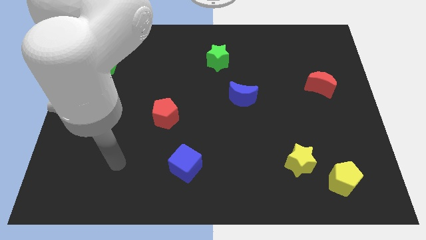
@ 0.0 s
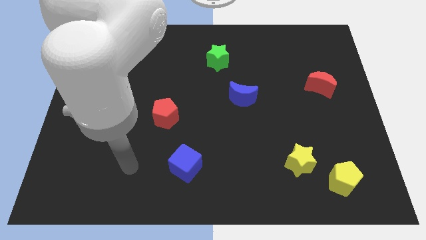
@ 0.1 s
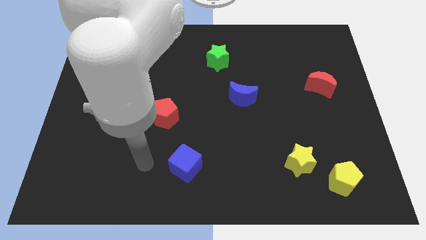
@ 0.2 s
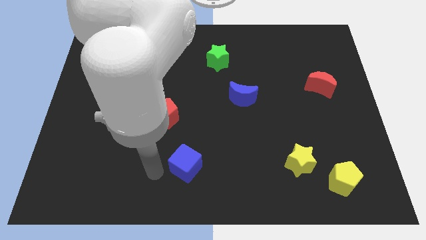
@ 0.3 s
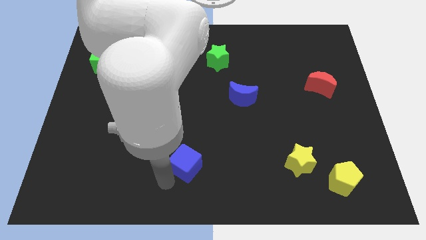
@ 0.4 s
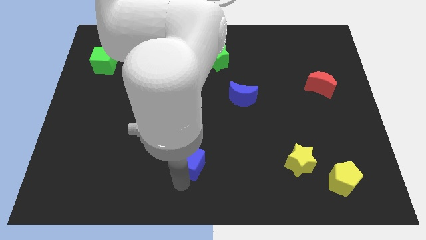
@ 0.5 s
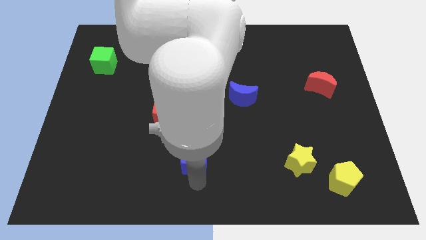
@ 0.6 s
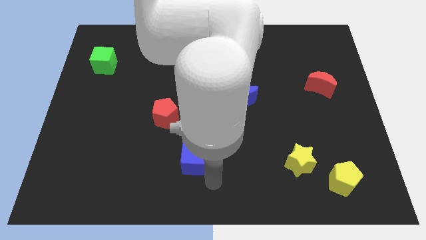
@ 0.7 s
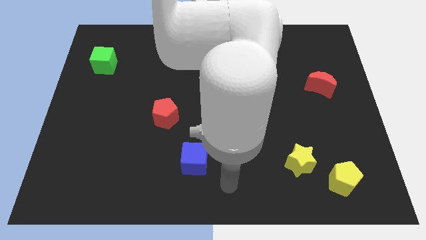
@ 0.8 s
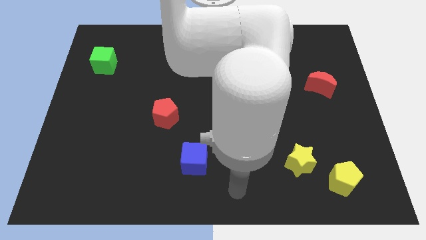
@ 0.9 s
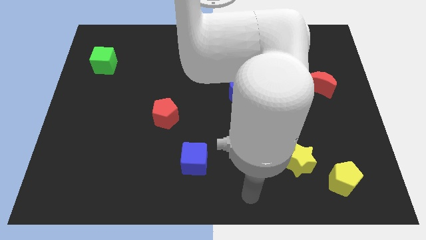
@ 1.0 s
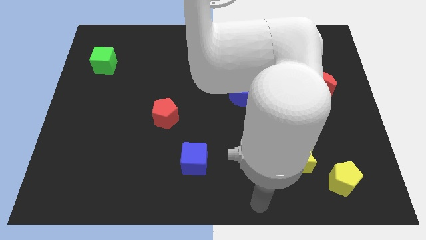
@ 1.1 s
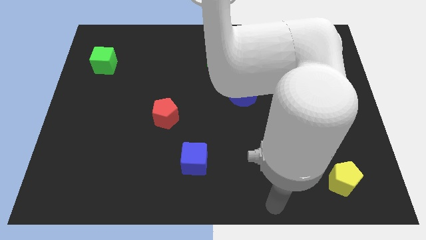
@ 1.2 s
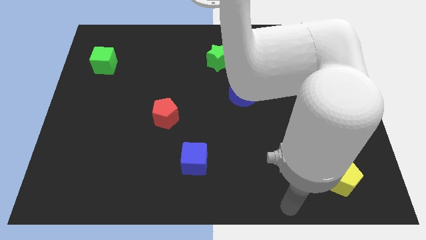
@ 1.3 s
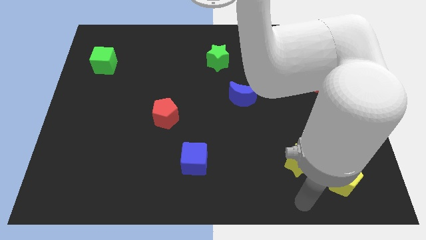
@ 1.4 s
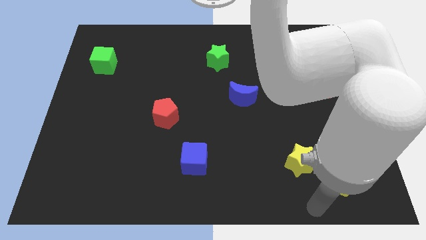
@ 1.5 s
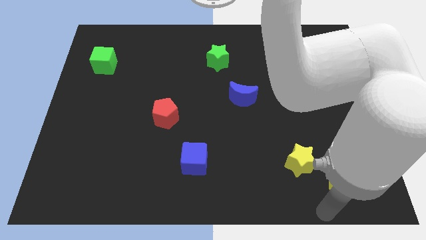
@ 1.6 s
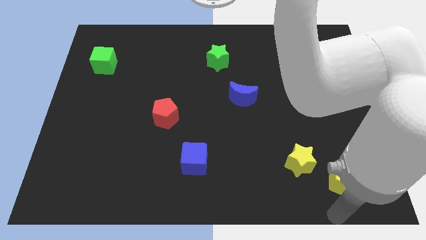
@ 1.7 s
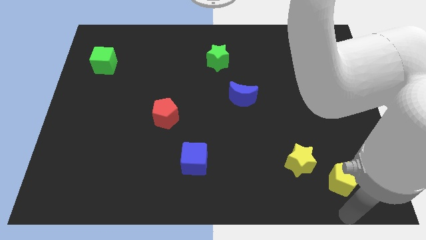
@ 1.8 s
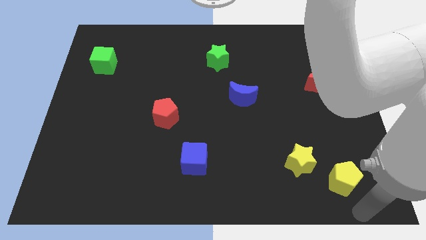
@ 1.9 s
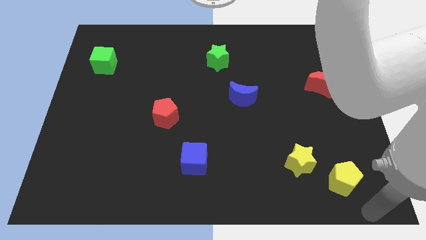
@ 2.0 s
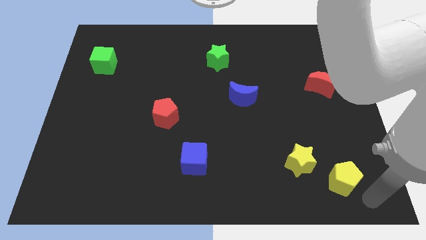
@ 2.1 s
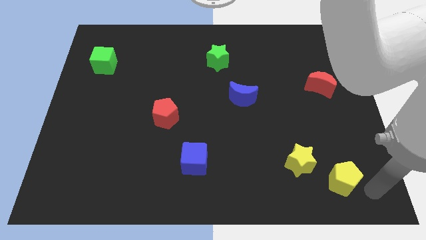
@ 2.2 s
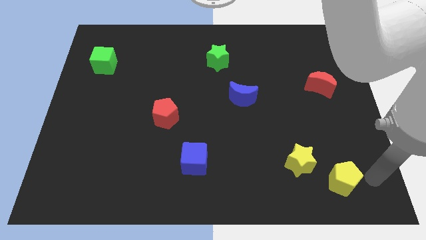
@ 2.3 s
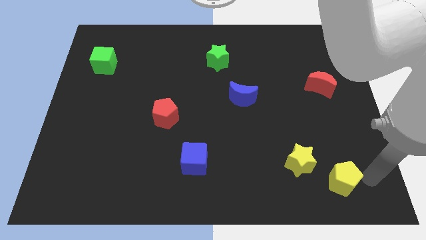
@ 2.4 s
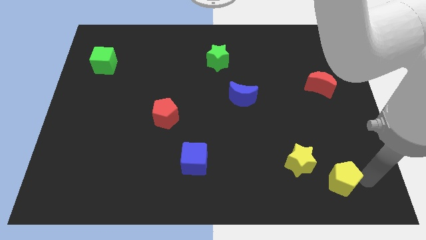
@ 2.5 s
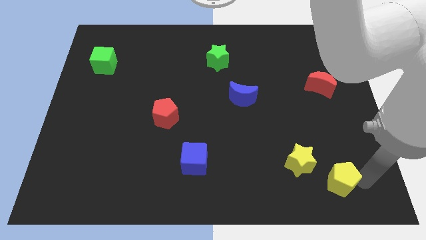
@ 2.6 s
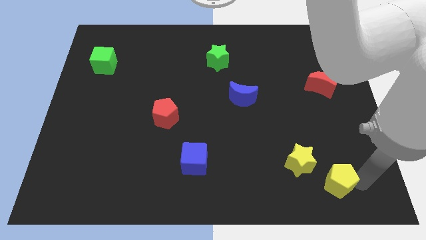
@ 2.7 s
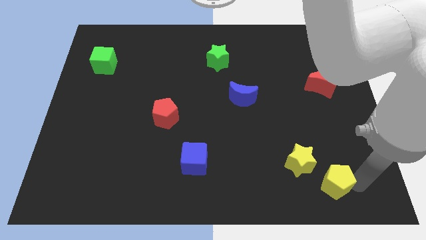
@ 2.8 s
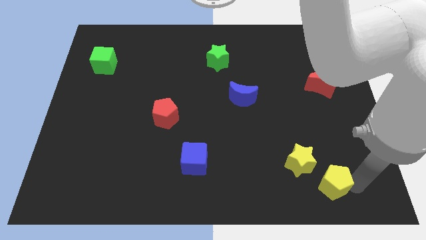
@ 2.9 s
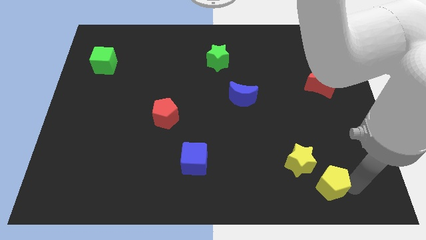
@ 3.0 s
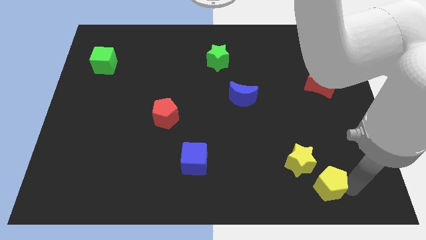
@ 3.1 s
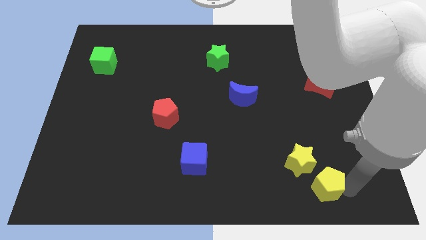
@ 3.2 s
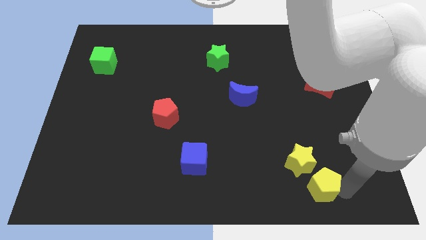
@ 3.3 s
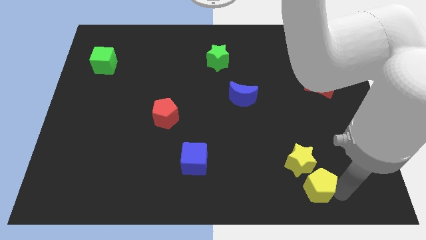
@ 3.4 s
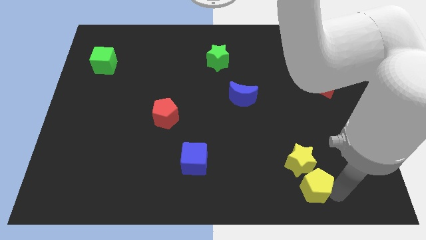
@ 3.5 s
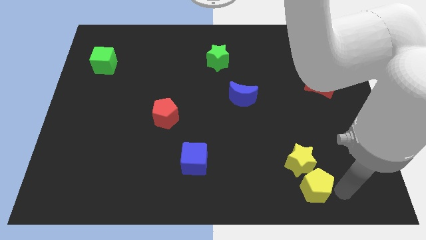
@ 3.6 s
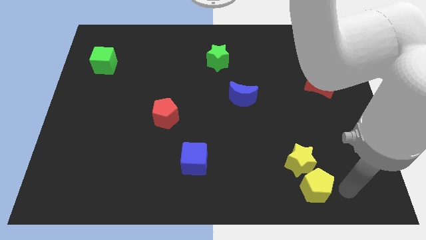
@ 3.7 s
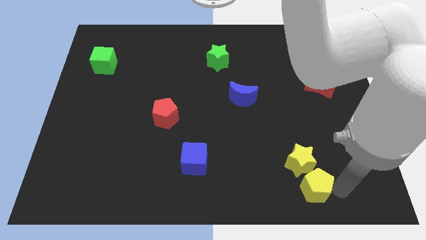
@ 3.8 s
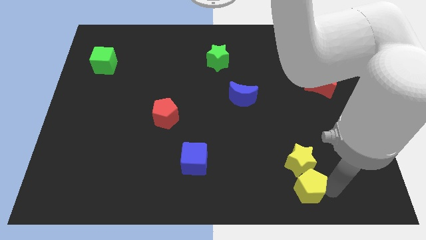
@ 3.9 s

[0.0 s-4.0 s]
push the yellow pentagon somewhat to the left

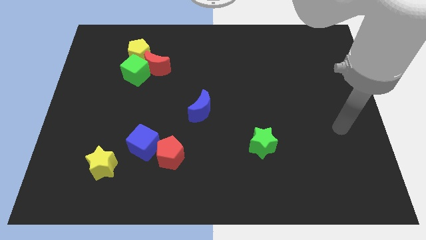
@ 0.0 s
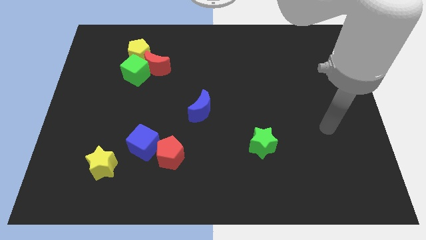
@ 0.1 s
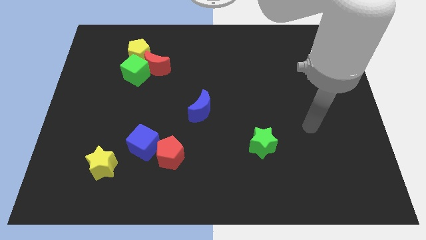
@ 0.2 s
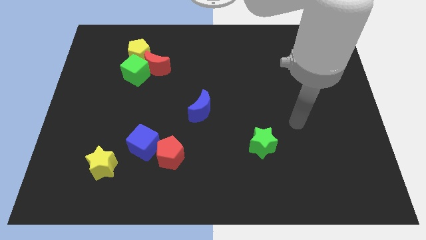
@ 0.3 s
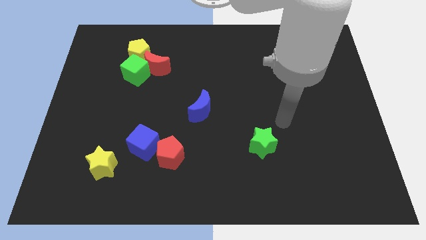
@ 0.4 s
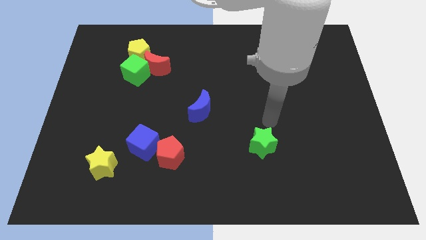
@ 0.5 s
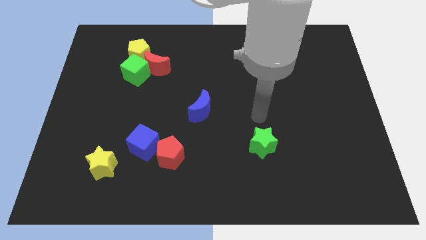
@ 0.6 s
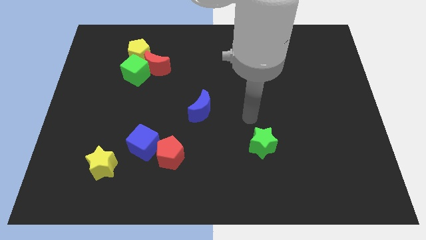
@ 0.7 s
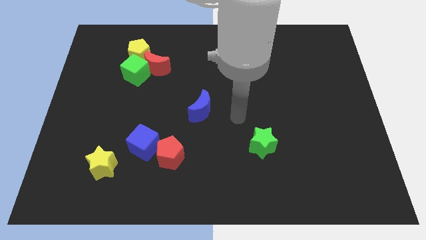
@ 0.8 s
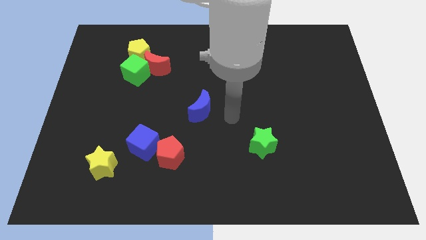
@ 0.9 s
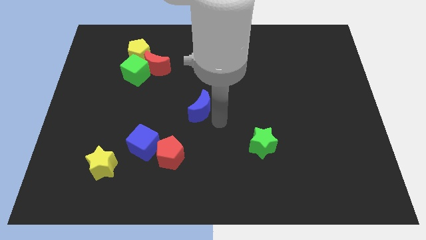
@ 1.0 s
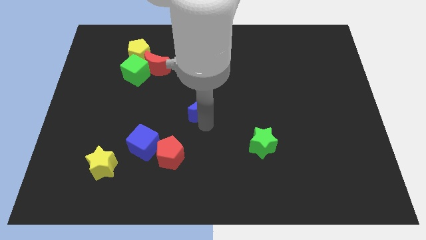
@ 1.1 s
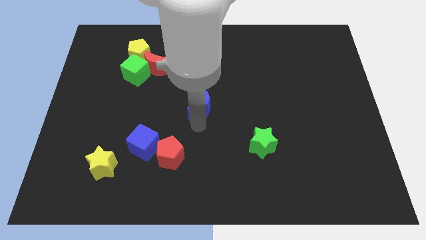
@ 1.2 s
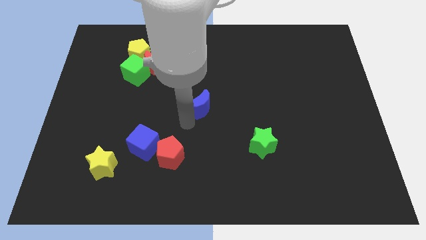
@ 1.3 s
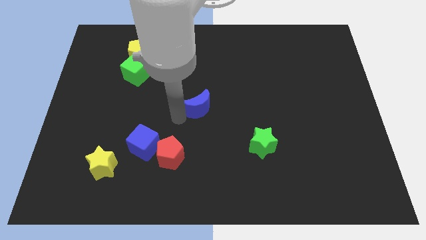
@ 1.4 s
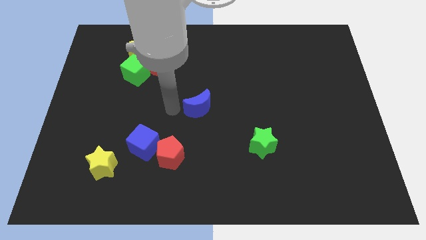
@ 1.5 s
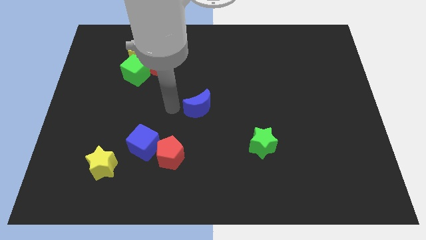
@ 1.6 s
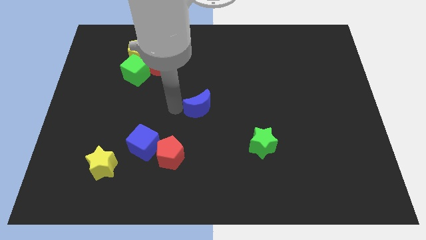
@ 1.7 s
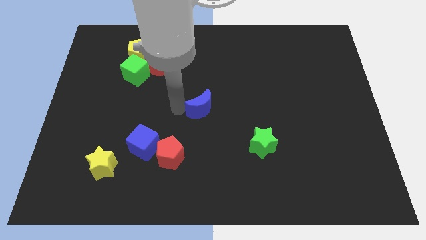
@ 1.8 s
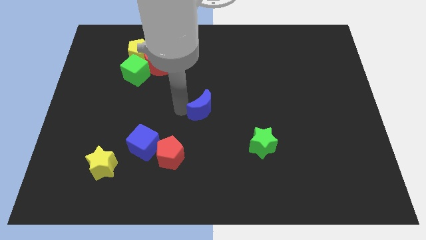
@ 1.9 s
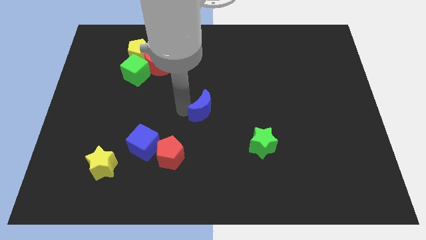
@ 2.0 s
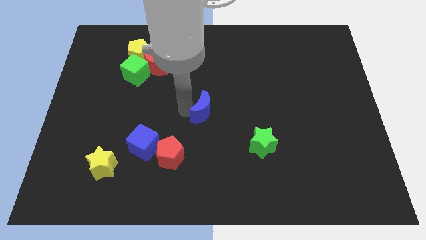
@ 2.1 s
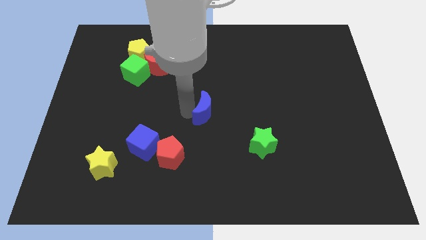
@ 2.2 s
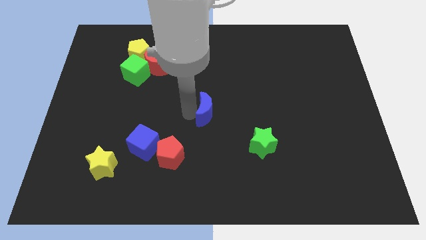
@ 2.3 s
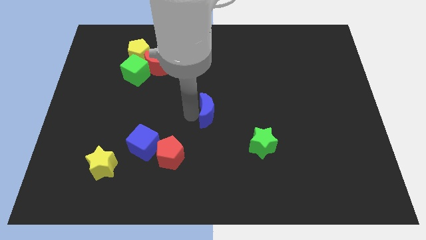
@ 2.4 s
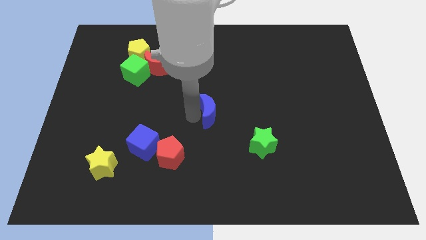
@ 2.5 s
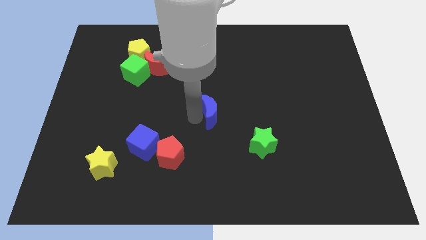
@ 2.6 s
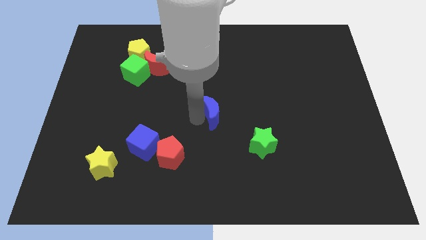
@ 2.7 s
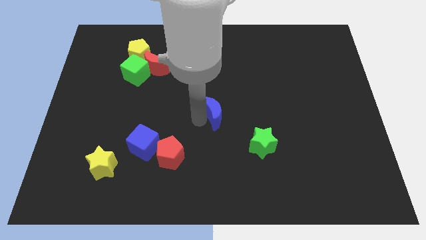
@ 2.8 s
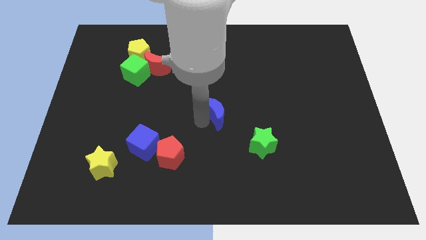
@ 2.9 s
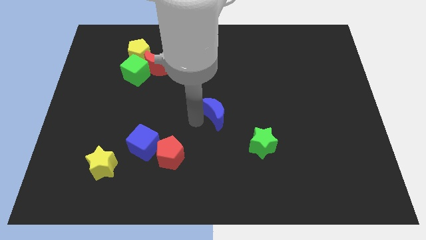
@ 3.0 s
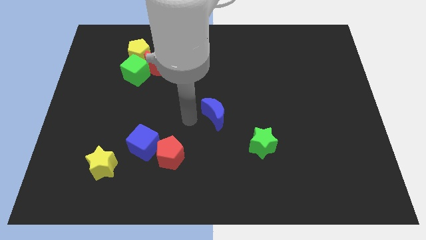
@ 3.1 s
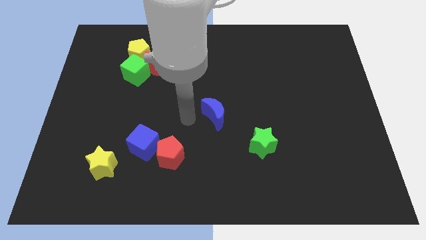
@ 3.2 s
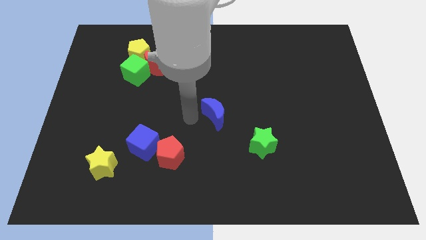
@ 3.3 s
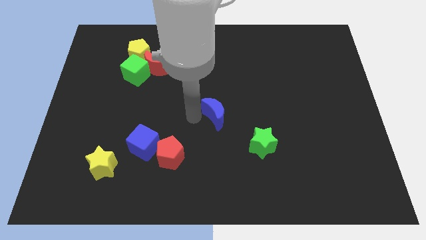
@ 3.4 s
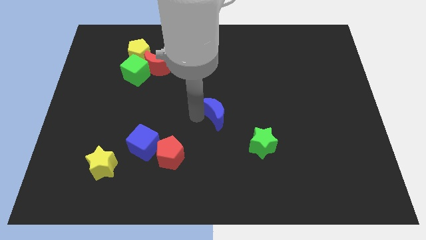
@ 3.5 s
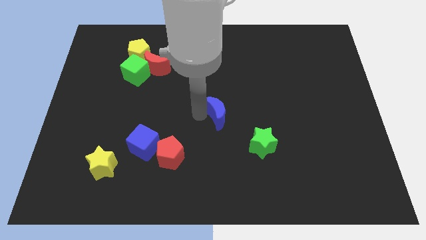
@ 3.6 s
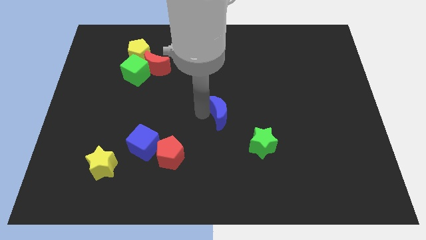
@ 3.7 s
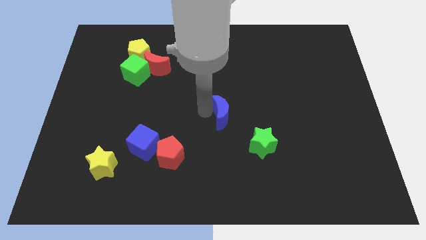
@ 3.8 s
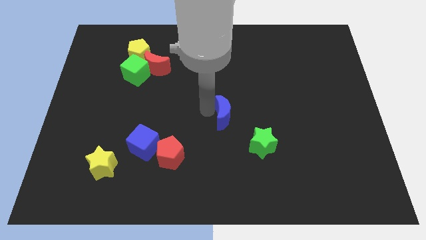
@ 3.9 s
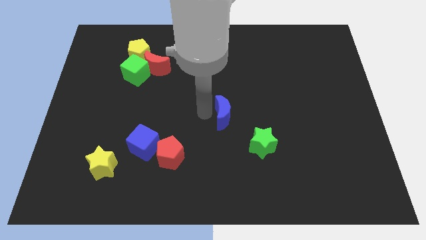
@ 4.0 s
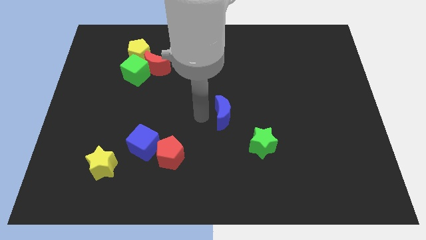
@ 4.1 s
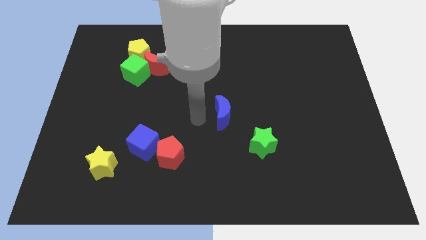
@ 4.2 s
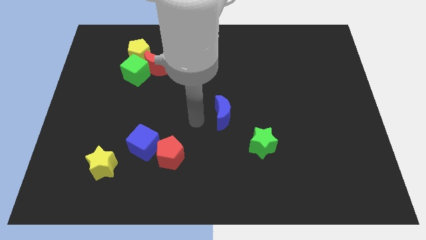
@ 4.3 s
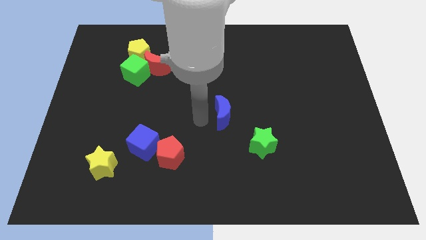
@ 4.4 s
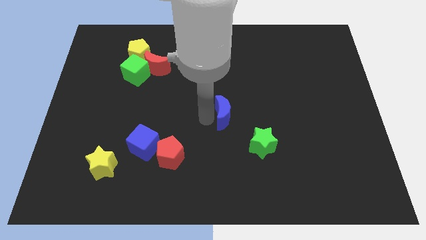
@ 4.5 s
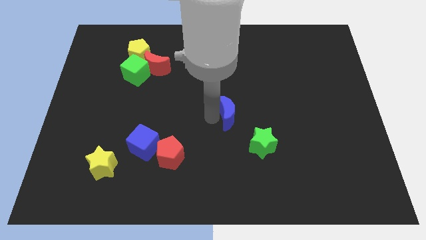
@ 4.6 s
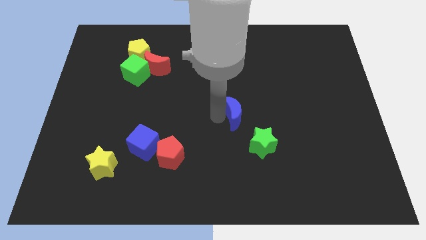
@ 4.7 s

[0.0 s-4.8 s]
push the blue moon a little right
